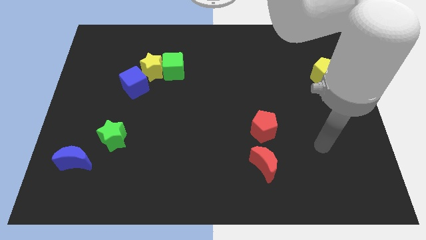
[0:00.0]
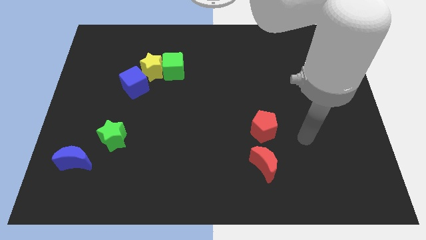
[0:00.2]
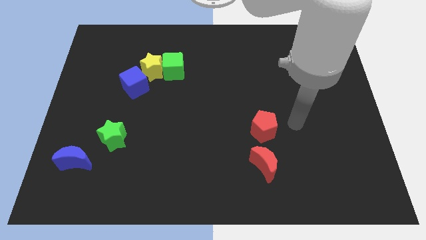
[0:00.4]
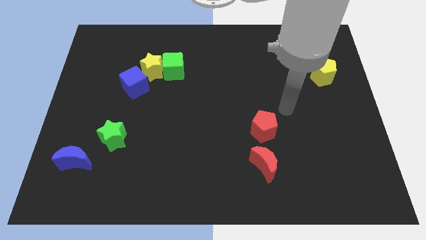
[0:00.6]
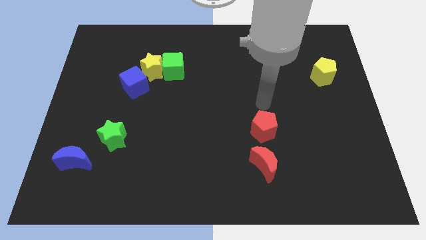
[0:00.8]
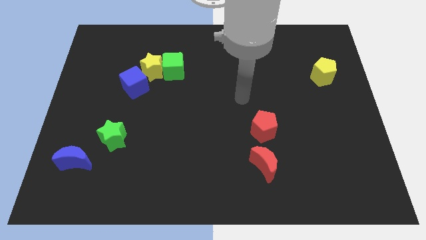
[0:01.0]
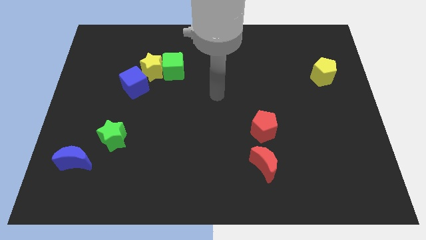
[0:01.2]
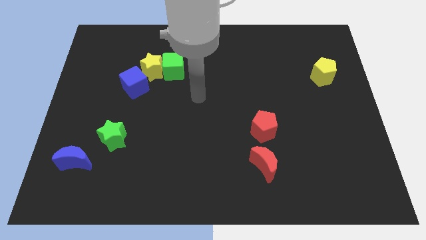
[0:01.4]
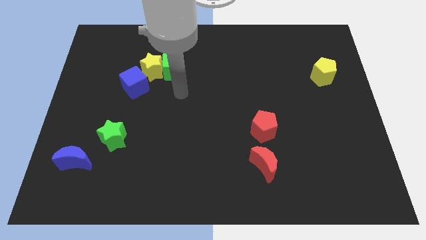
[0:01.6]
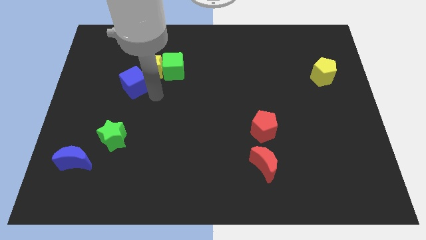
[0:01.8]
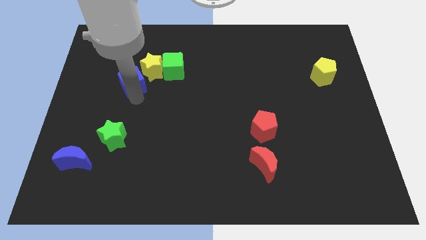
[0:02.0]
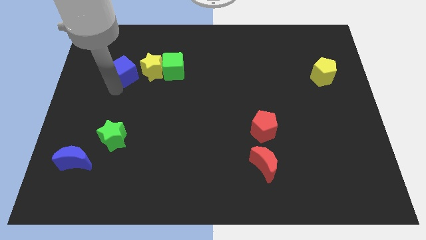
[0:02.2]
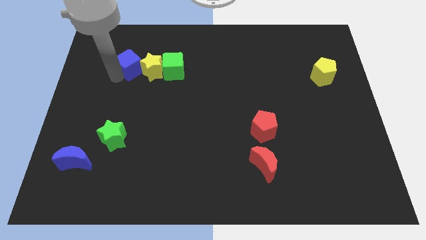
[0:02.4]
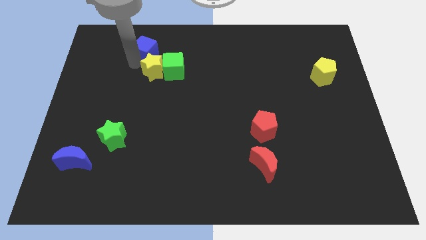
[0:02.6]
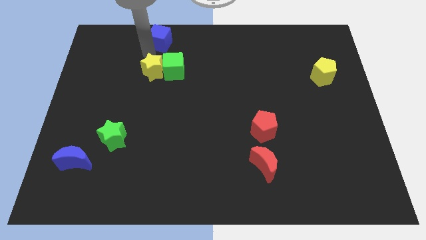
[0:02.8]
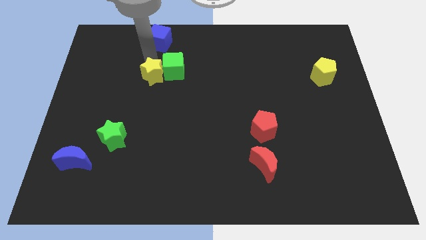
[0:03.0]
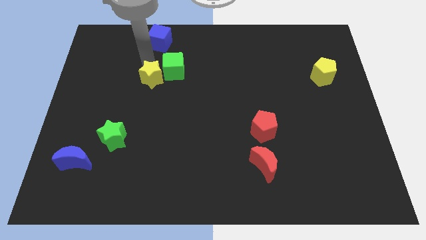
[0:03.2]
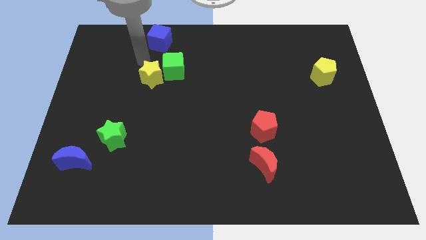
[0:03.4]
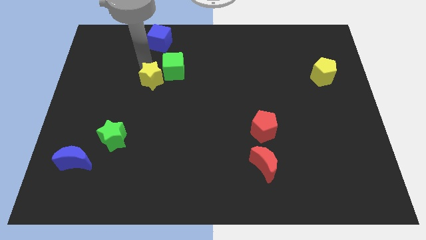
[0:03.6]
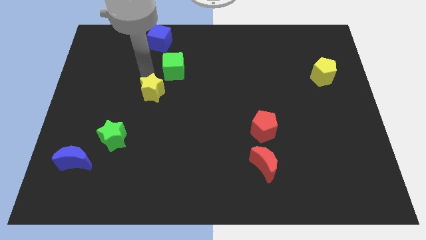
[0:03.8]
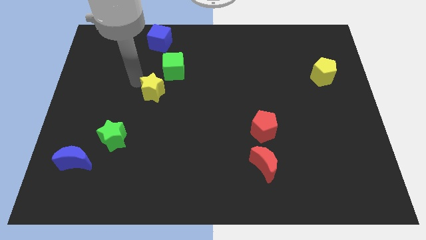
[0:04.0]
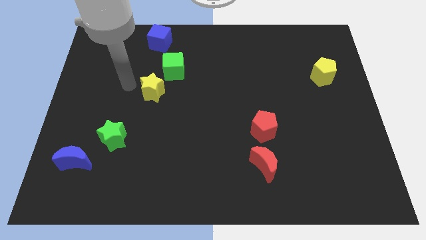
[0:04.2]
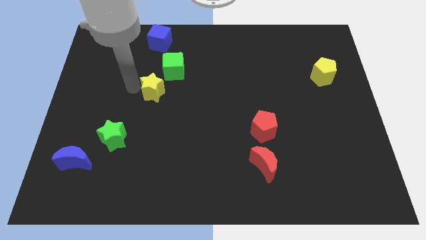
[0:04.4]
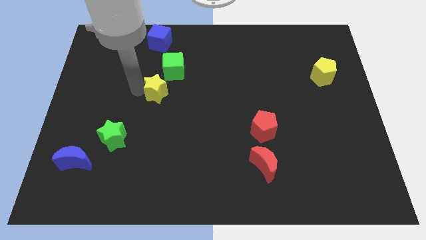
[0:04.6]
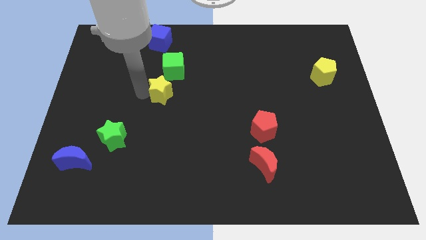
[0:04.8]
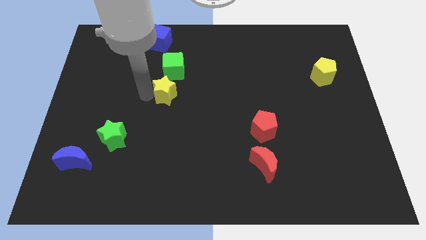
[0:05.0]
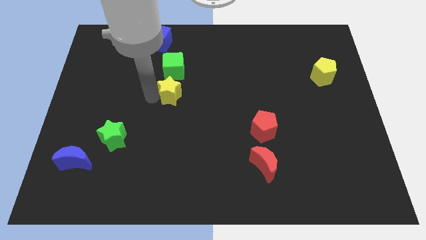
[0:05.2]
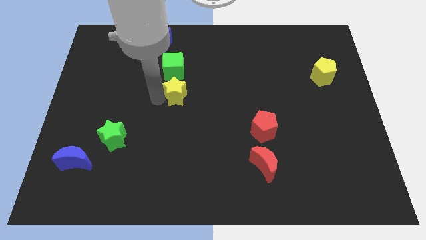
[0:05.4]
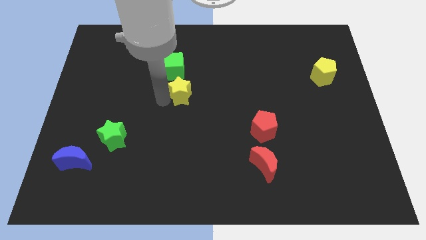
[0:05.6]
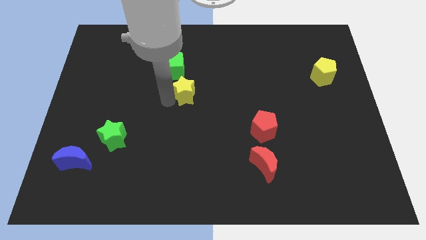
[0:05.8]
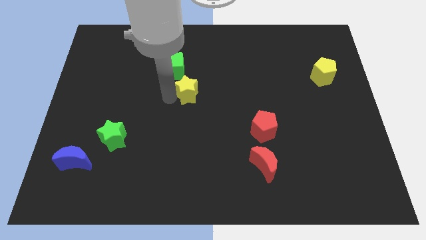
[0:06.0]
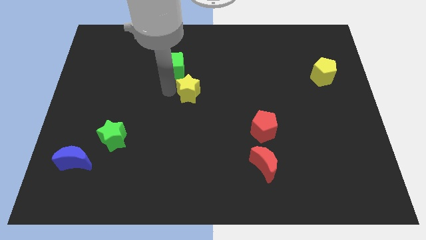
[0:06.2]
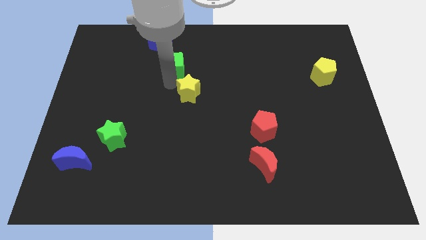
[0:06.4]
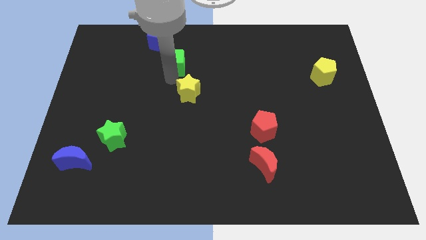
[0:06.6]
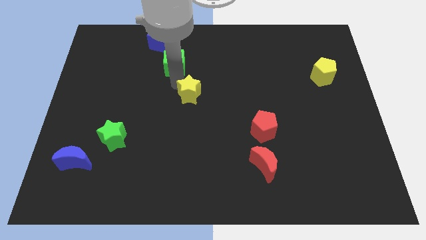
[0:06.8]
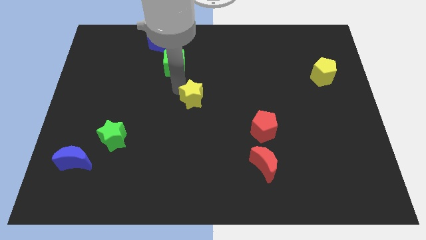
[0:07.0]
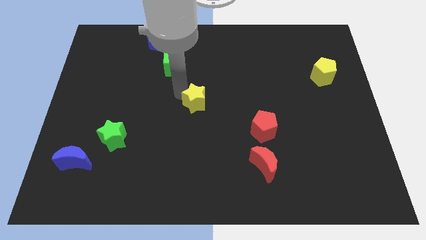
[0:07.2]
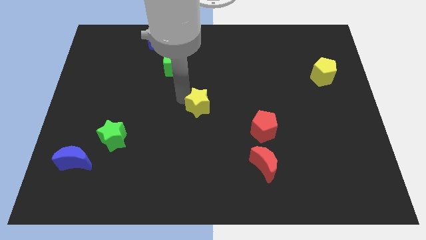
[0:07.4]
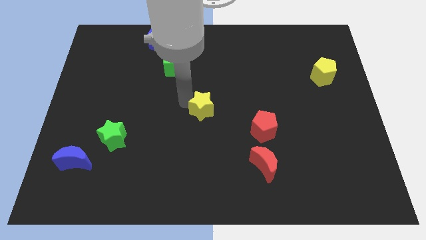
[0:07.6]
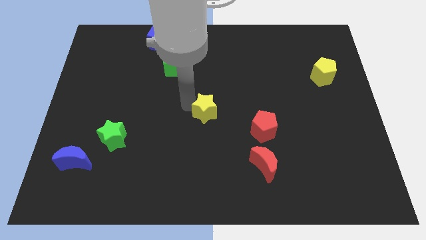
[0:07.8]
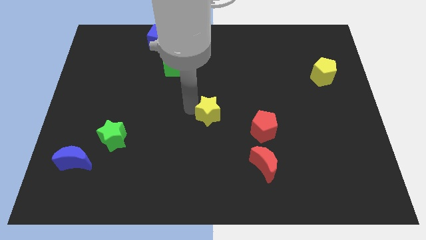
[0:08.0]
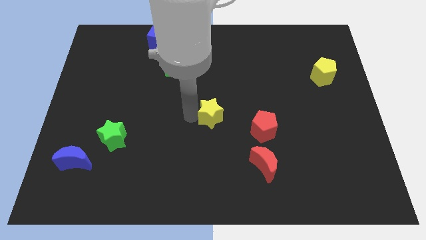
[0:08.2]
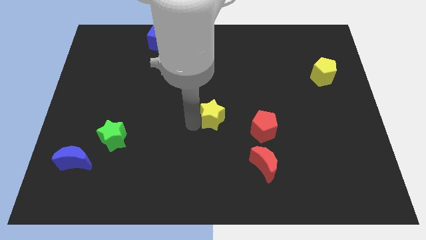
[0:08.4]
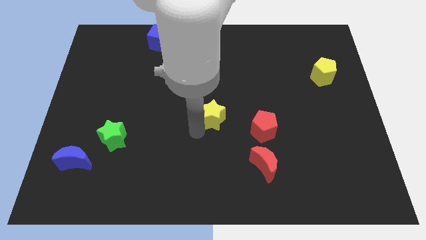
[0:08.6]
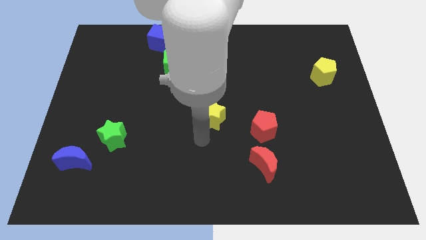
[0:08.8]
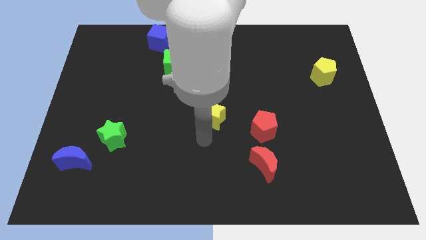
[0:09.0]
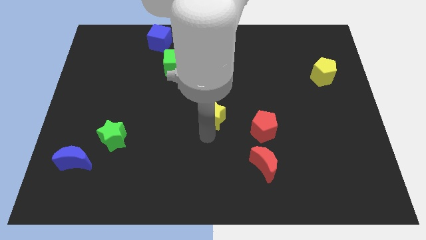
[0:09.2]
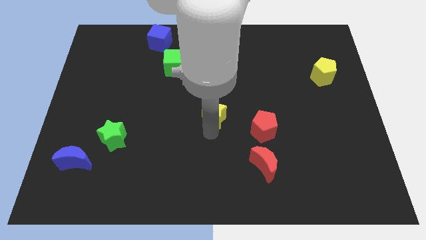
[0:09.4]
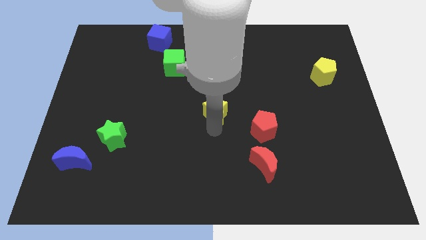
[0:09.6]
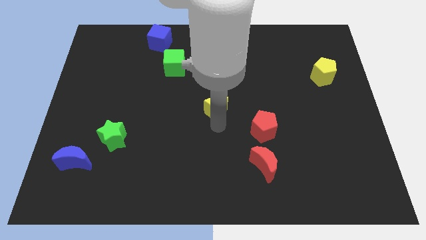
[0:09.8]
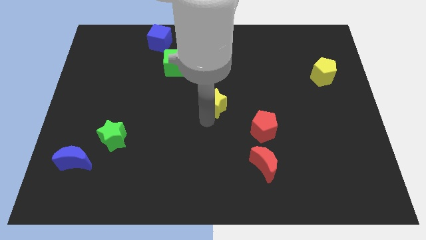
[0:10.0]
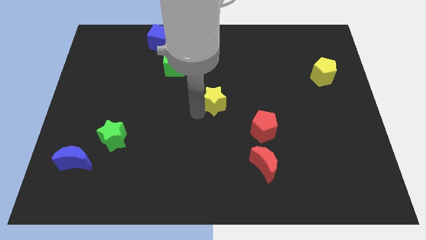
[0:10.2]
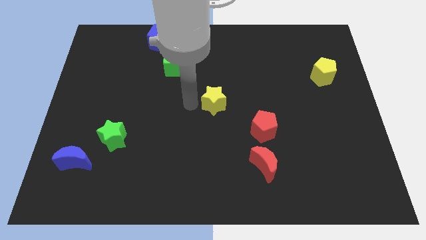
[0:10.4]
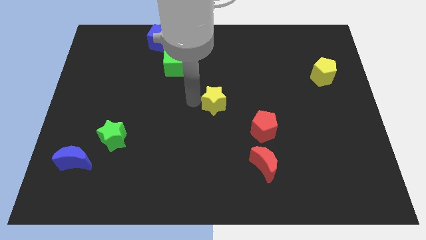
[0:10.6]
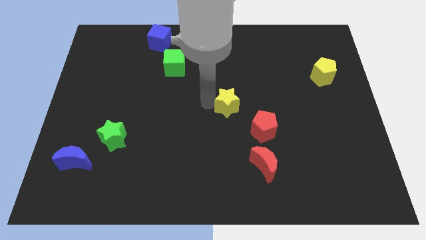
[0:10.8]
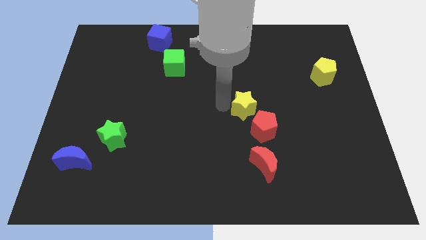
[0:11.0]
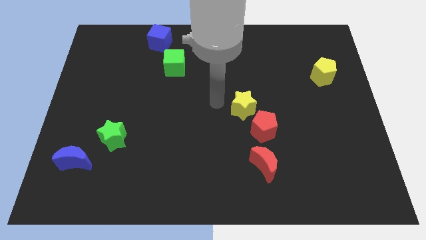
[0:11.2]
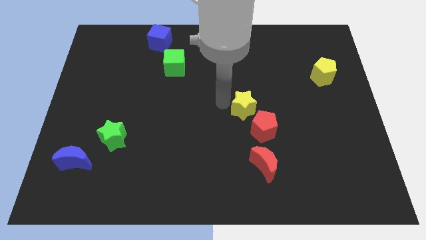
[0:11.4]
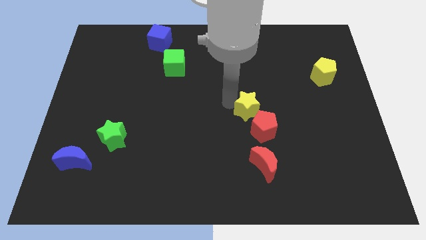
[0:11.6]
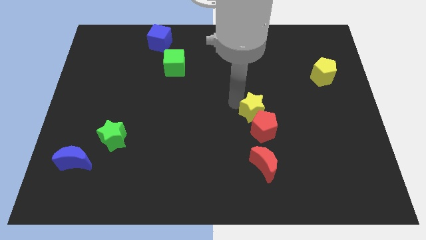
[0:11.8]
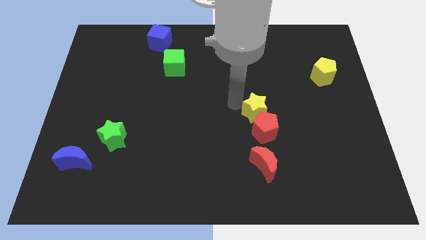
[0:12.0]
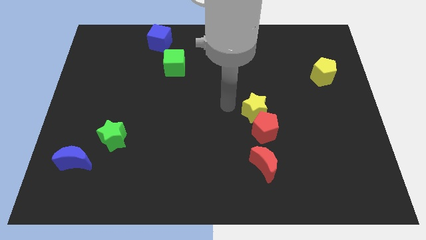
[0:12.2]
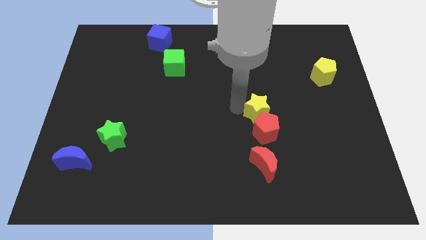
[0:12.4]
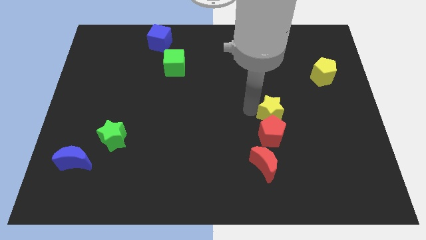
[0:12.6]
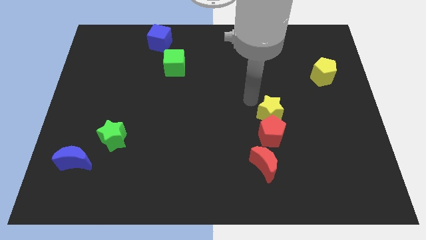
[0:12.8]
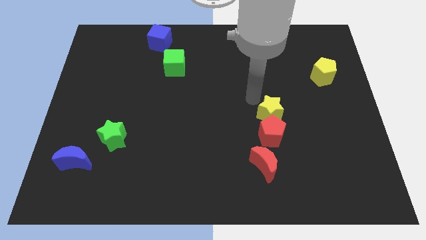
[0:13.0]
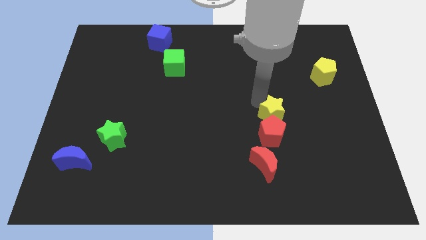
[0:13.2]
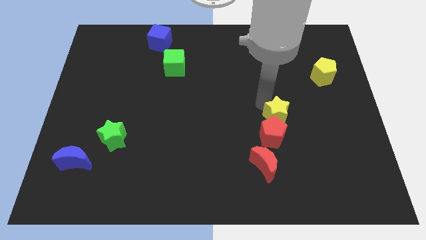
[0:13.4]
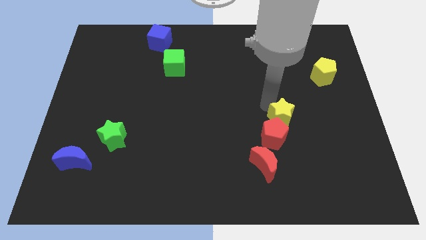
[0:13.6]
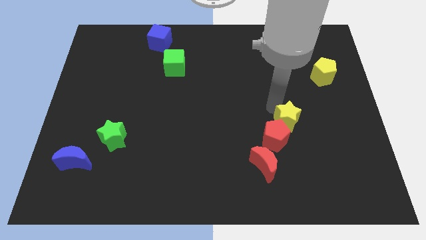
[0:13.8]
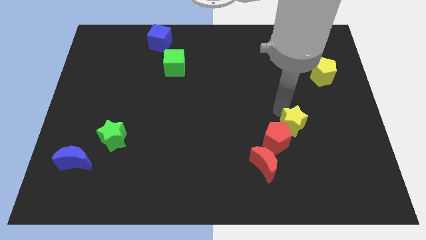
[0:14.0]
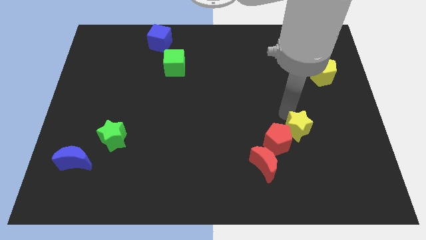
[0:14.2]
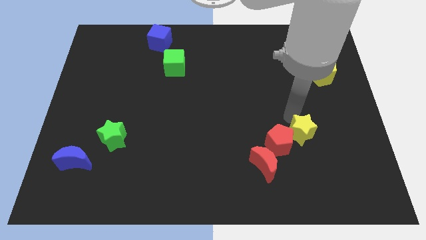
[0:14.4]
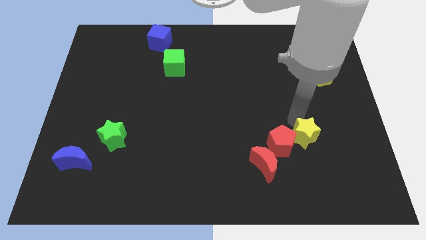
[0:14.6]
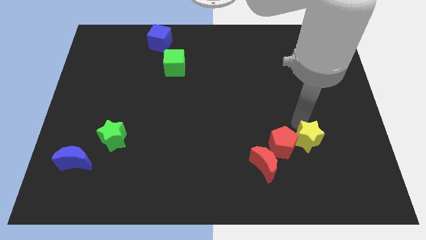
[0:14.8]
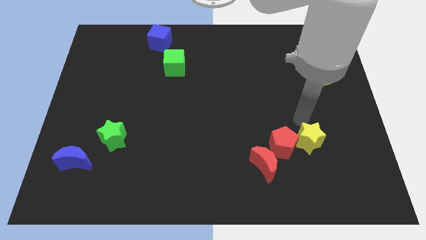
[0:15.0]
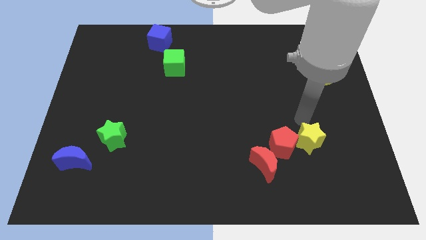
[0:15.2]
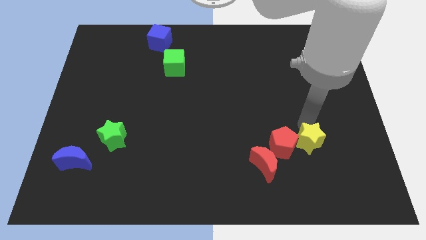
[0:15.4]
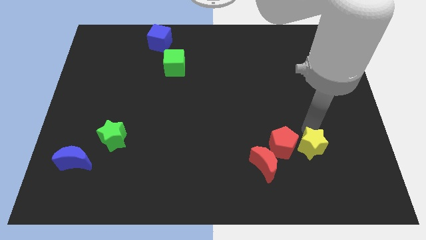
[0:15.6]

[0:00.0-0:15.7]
push the yellow star to the right side of the red moon
